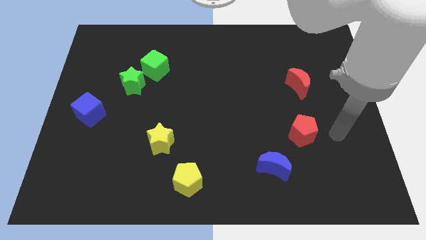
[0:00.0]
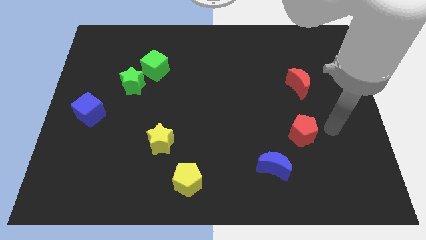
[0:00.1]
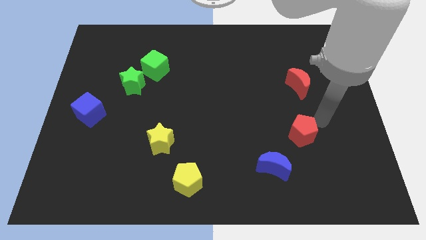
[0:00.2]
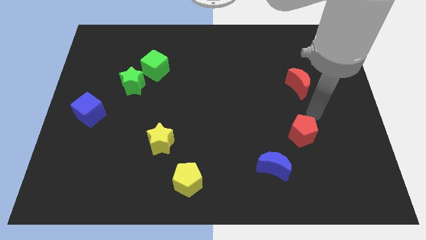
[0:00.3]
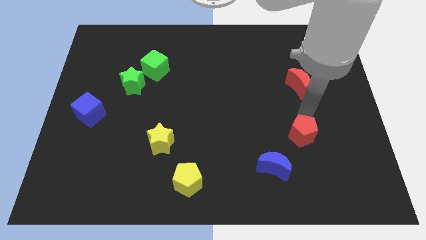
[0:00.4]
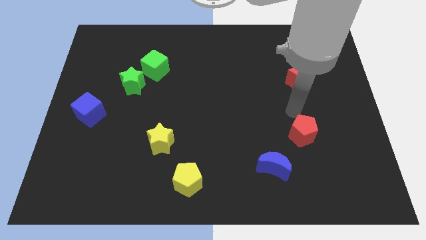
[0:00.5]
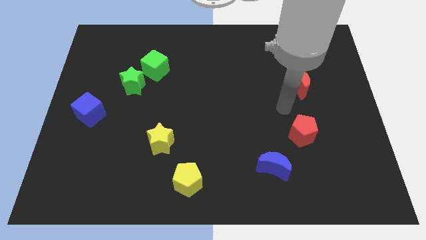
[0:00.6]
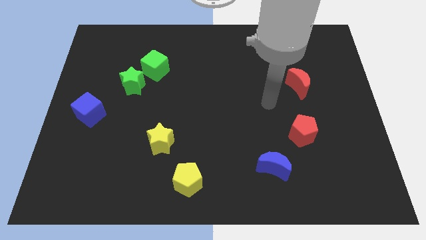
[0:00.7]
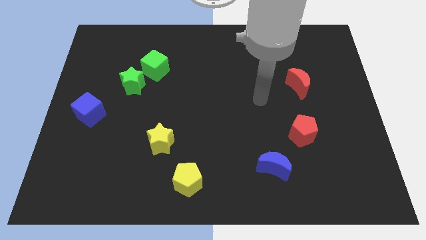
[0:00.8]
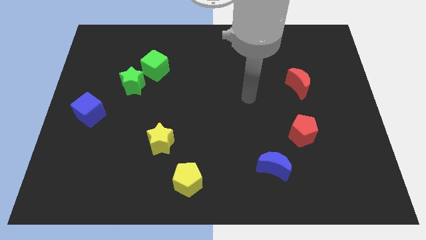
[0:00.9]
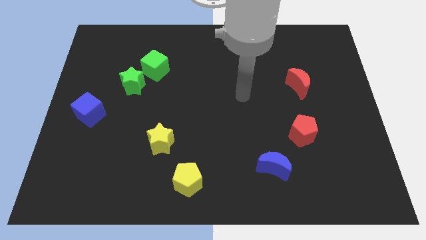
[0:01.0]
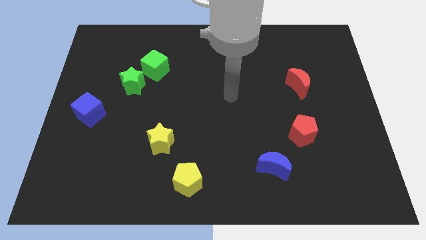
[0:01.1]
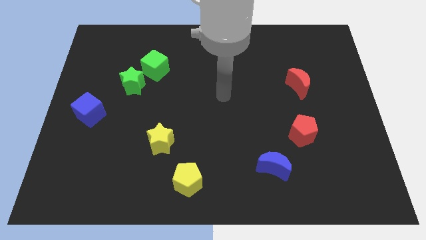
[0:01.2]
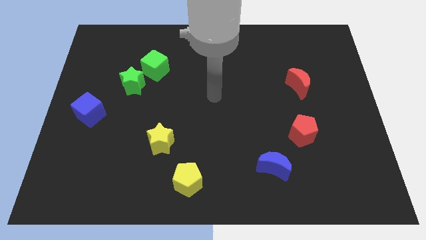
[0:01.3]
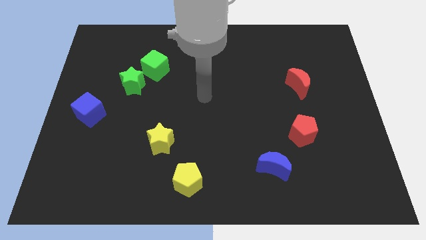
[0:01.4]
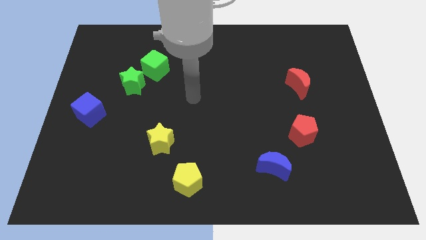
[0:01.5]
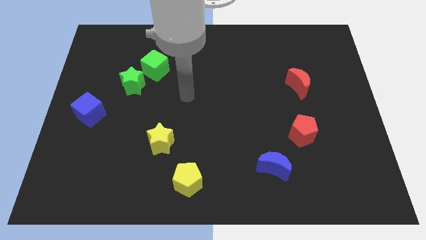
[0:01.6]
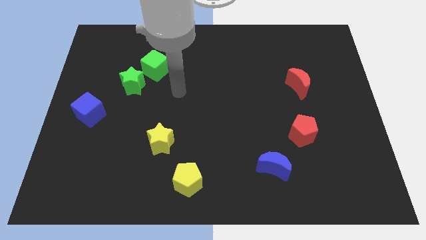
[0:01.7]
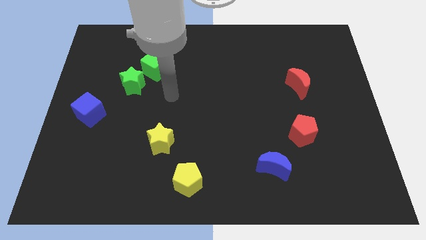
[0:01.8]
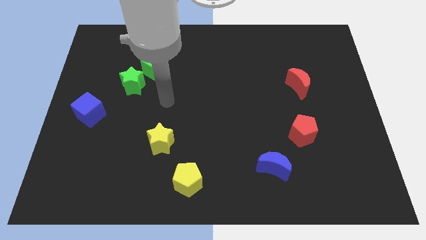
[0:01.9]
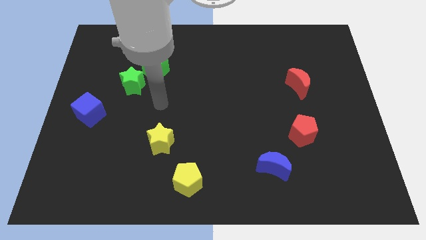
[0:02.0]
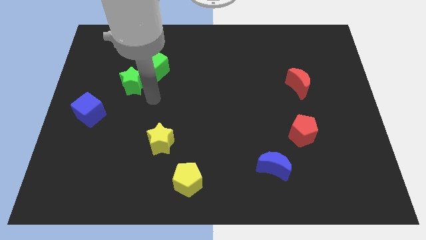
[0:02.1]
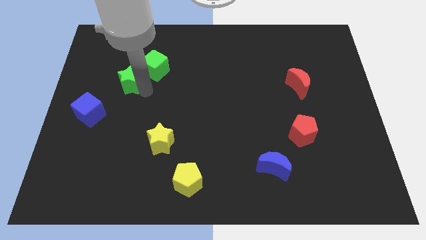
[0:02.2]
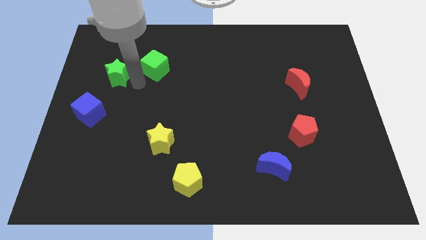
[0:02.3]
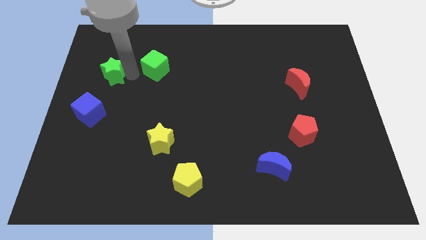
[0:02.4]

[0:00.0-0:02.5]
separate the green cube from the green star

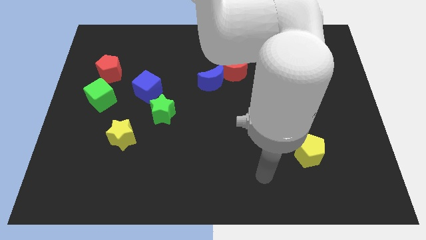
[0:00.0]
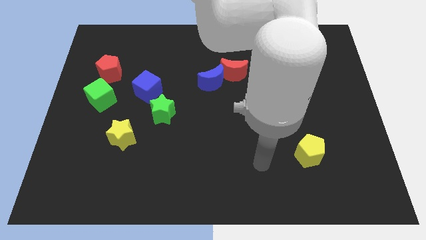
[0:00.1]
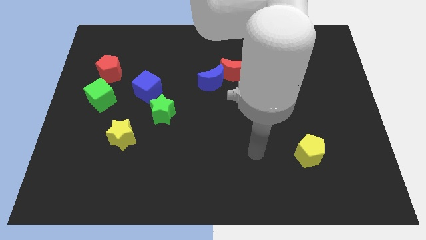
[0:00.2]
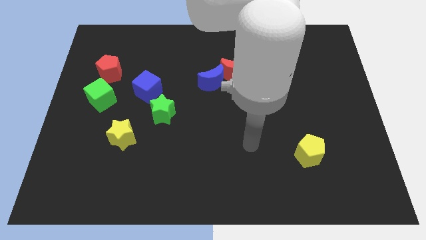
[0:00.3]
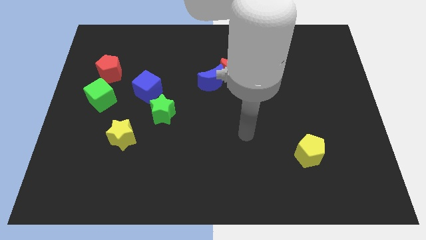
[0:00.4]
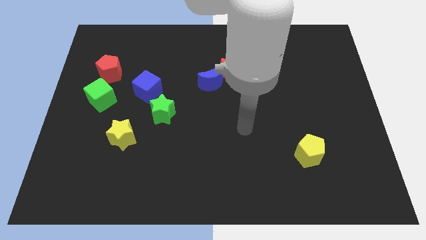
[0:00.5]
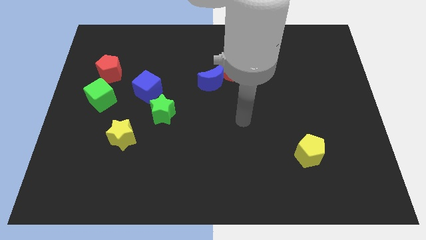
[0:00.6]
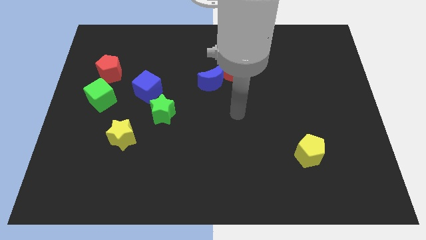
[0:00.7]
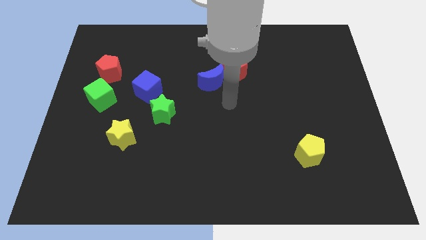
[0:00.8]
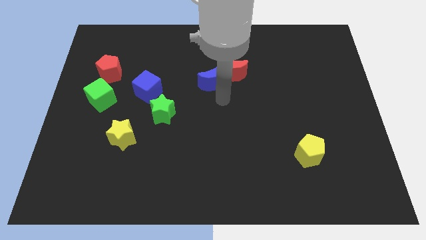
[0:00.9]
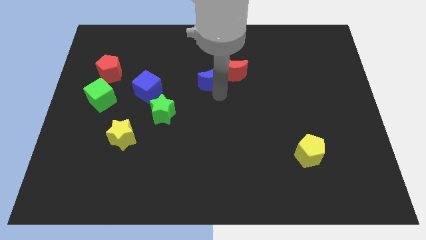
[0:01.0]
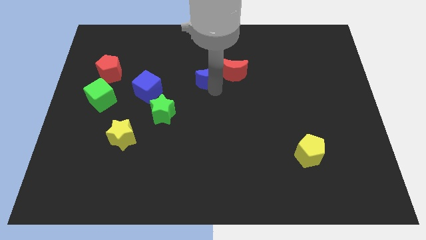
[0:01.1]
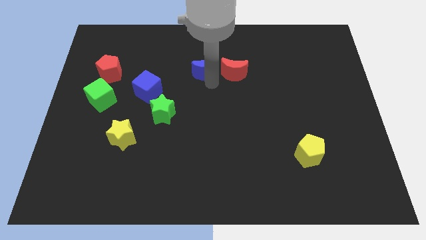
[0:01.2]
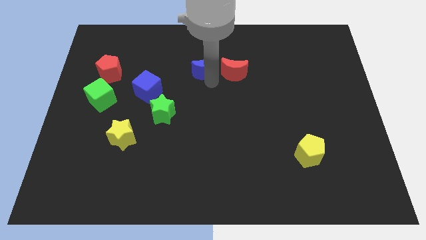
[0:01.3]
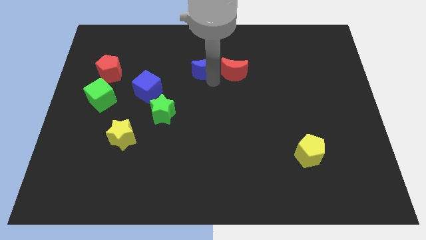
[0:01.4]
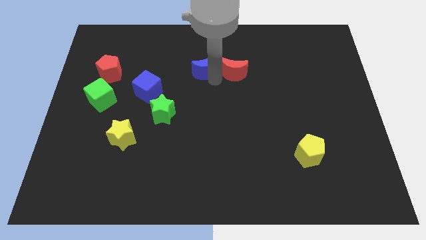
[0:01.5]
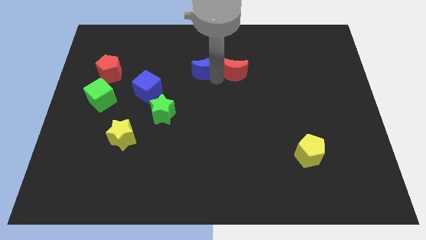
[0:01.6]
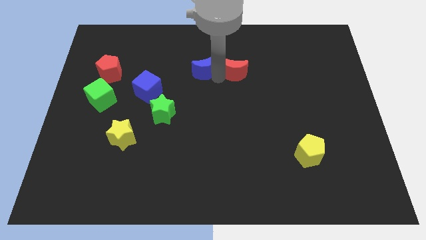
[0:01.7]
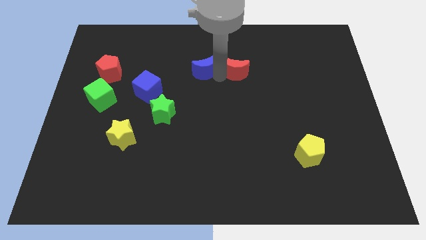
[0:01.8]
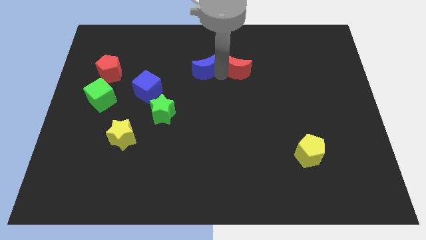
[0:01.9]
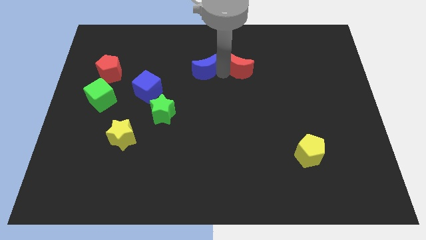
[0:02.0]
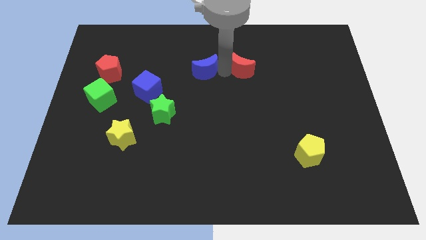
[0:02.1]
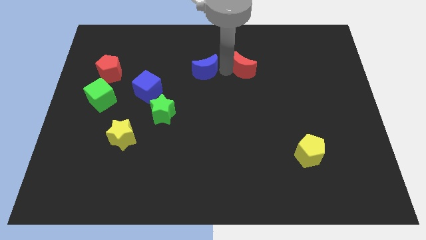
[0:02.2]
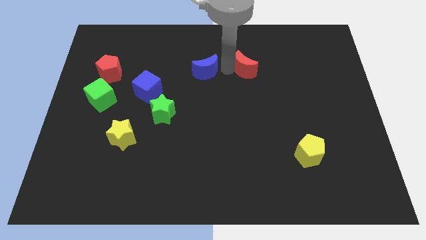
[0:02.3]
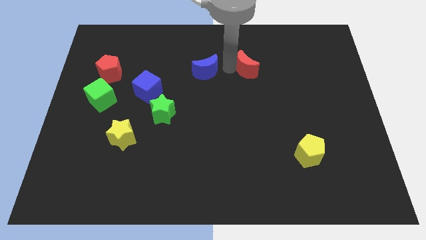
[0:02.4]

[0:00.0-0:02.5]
pull the red moon apart from the blue moon

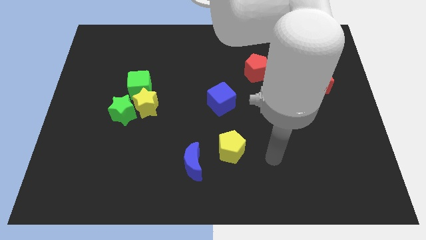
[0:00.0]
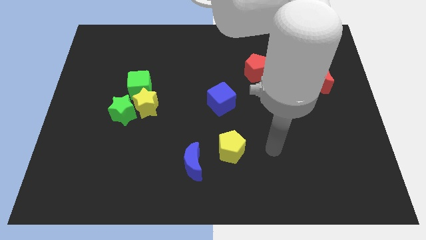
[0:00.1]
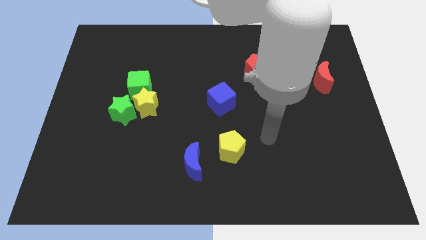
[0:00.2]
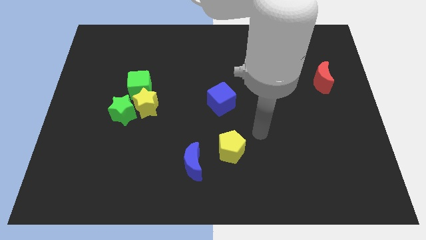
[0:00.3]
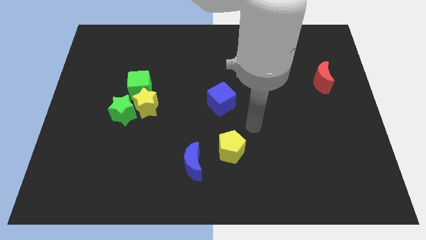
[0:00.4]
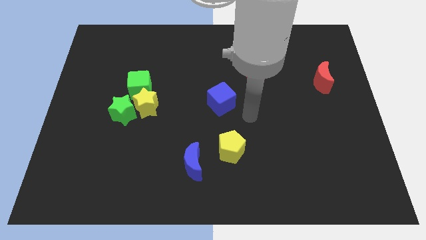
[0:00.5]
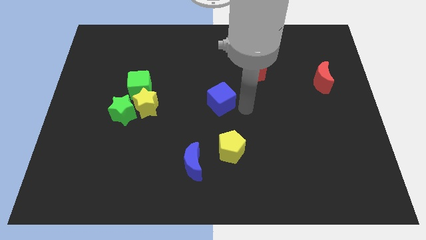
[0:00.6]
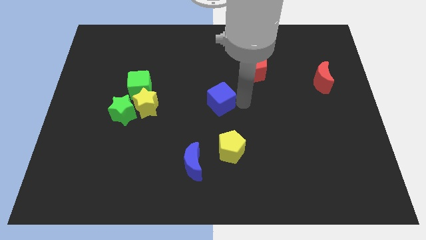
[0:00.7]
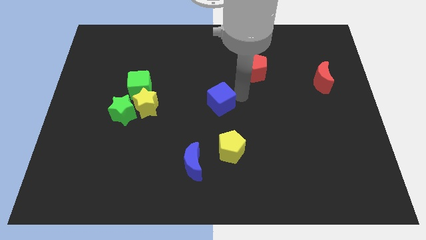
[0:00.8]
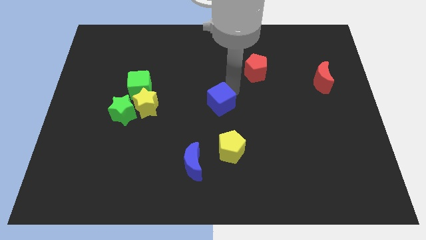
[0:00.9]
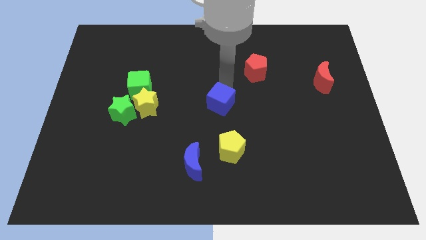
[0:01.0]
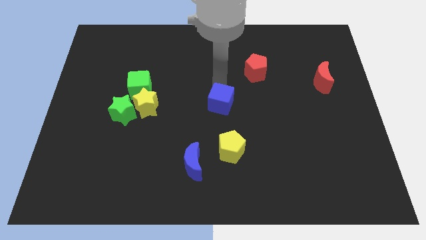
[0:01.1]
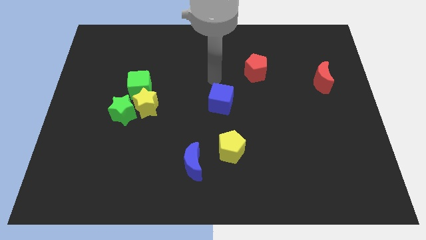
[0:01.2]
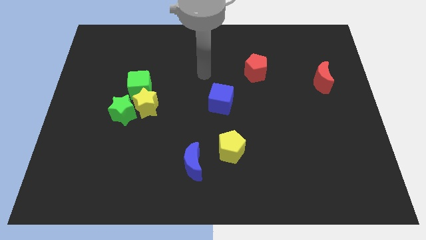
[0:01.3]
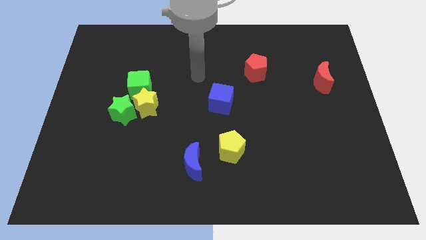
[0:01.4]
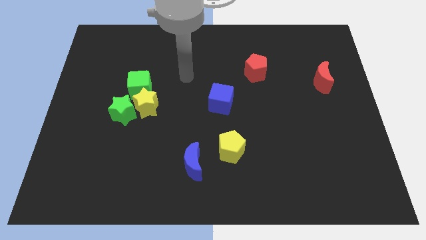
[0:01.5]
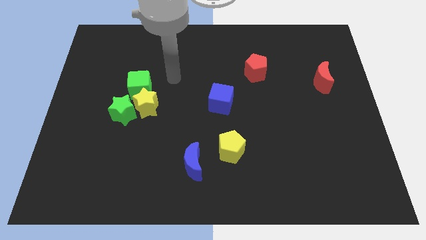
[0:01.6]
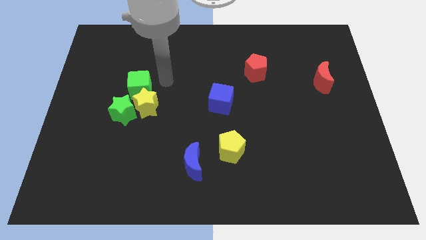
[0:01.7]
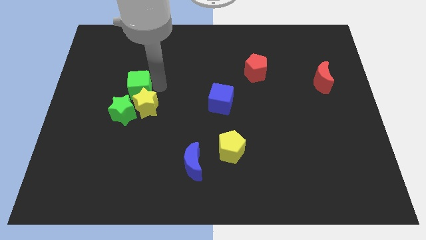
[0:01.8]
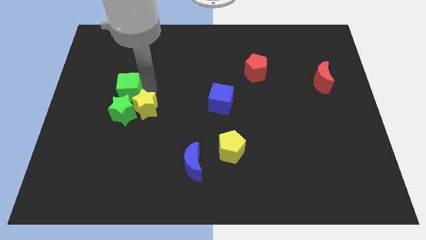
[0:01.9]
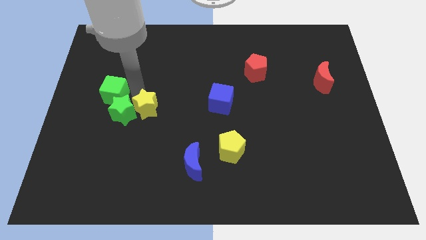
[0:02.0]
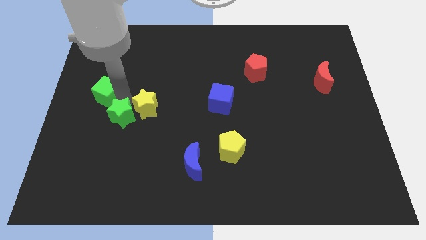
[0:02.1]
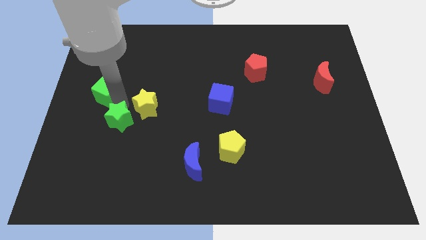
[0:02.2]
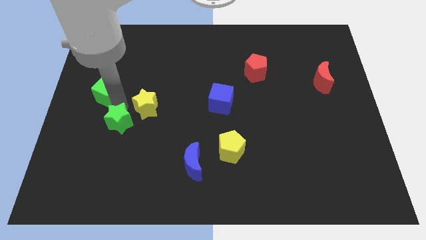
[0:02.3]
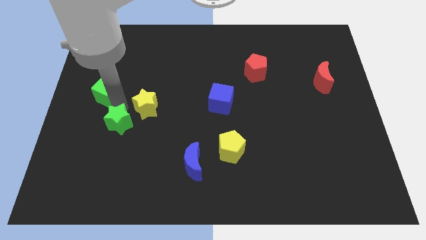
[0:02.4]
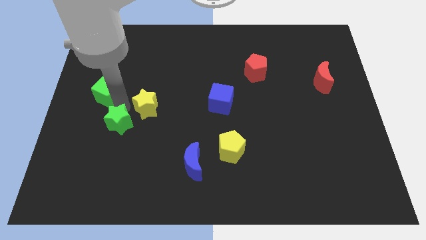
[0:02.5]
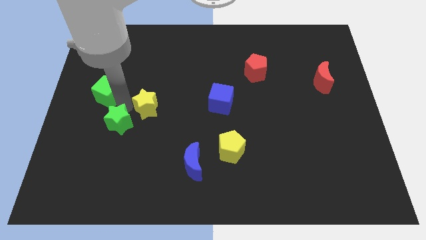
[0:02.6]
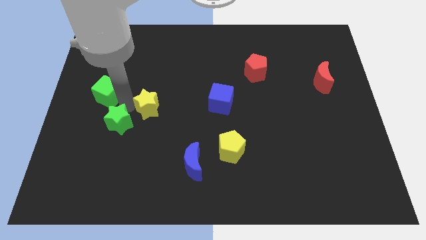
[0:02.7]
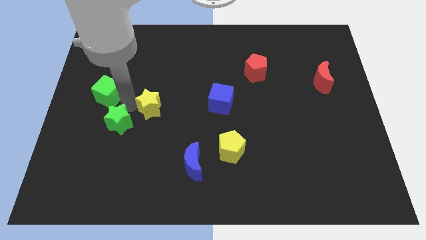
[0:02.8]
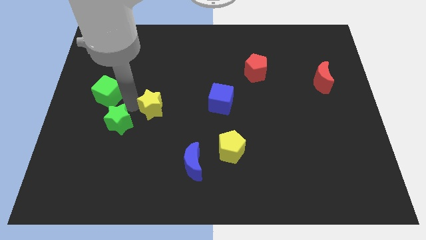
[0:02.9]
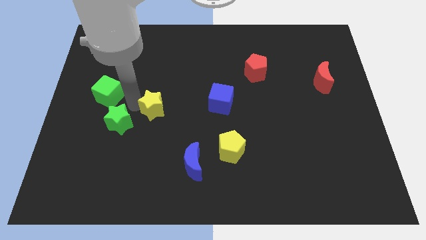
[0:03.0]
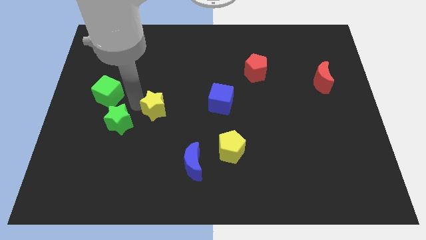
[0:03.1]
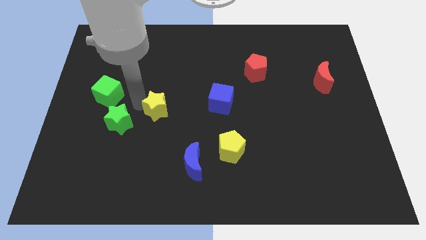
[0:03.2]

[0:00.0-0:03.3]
move the yellow star away from the green star and green cube

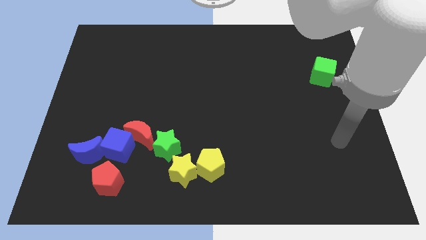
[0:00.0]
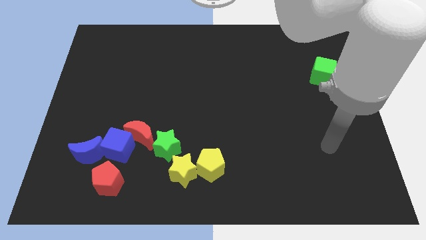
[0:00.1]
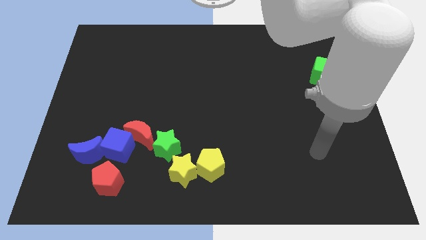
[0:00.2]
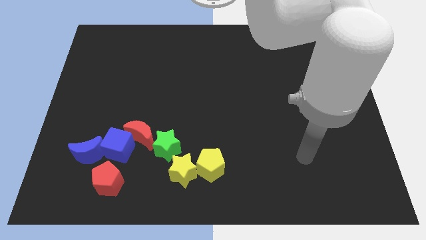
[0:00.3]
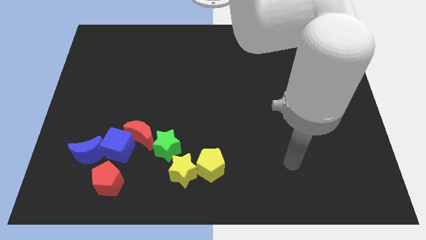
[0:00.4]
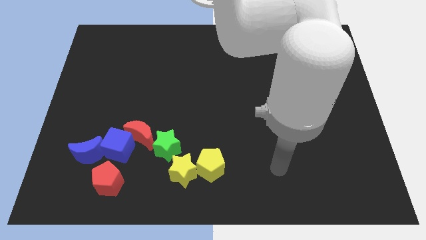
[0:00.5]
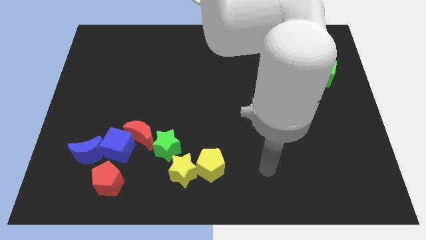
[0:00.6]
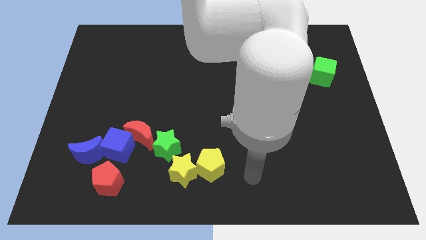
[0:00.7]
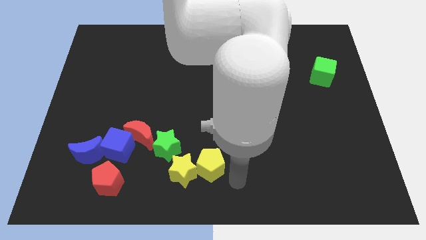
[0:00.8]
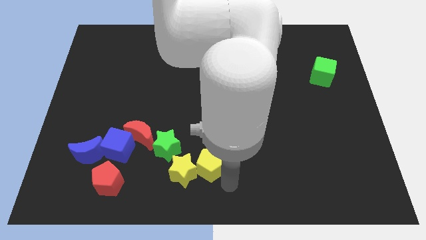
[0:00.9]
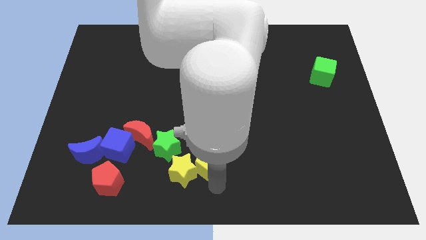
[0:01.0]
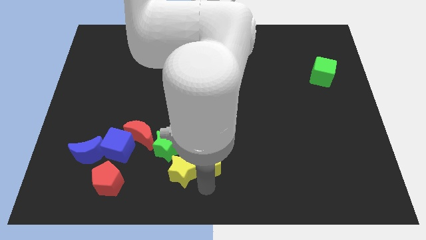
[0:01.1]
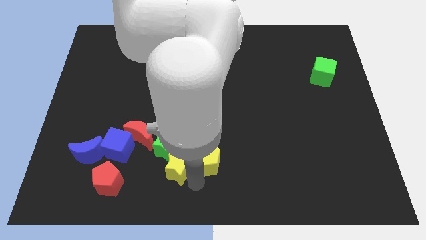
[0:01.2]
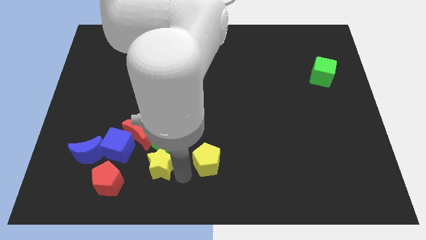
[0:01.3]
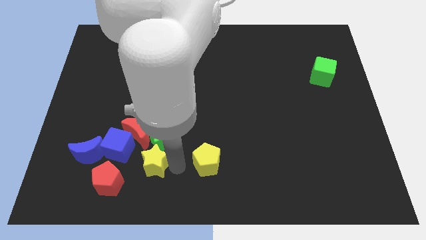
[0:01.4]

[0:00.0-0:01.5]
pull the yellow pentagon apart from the yellow star
